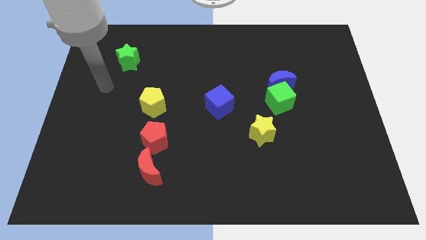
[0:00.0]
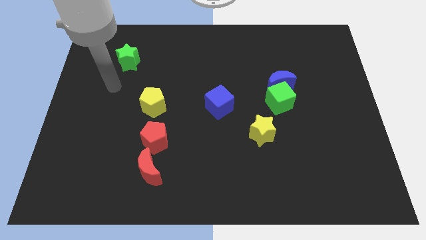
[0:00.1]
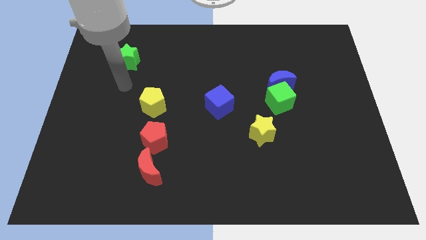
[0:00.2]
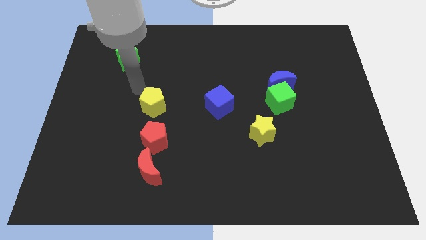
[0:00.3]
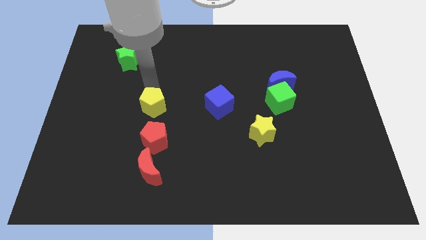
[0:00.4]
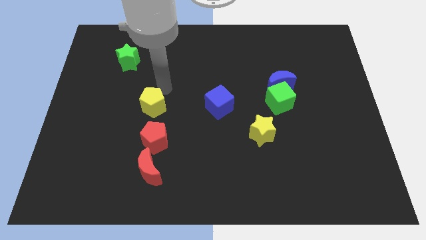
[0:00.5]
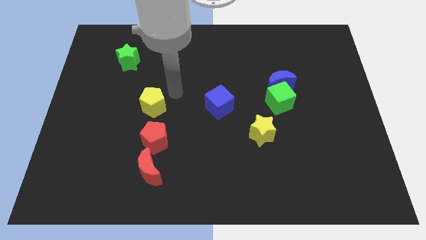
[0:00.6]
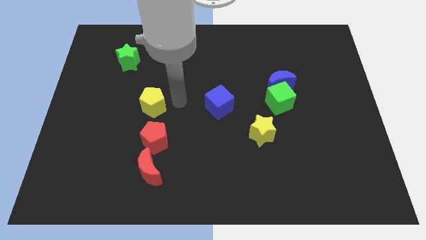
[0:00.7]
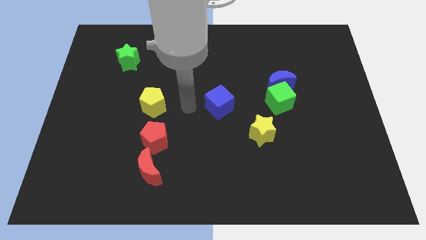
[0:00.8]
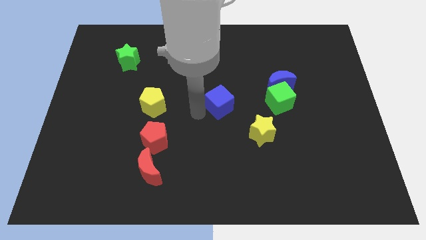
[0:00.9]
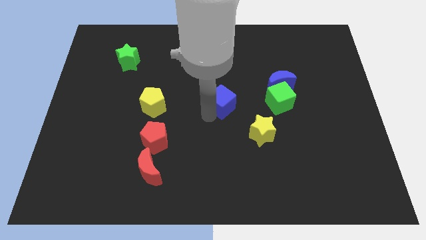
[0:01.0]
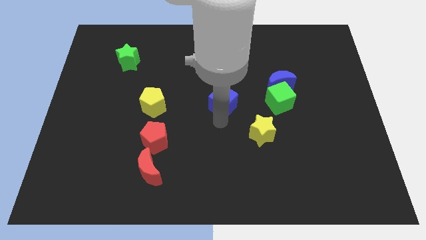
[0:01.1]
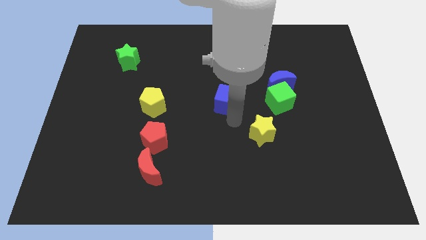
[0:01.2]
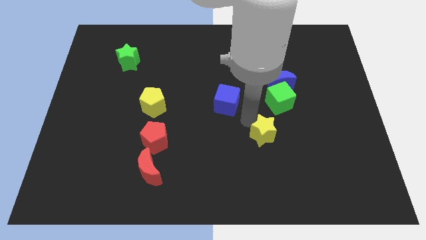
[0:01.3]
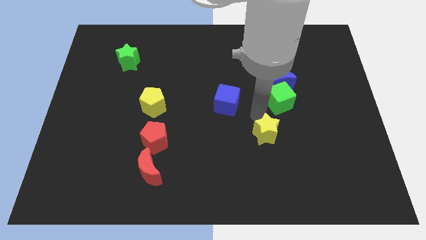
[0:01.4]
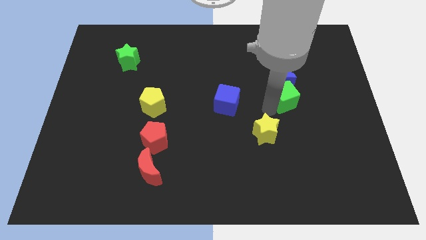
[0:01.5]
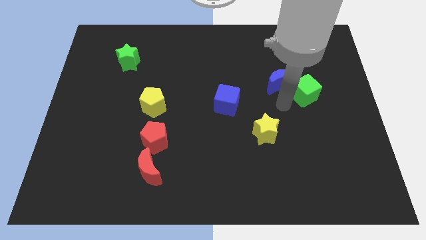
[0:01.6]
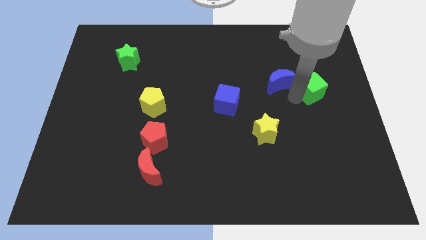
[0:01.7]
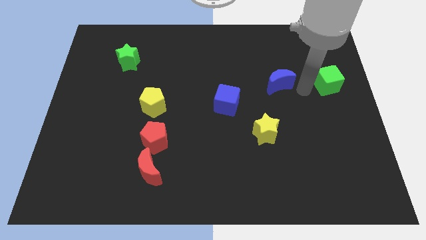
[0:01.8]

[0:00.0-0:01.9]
move the blue moon away from the green cube

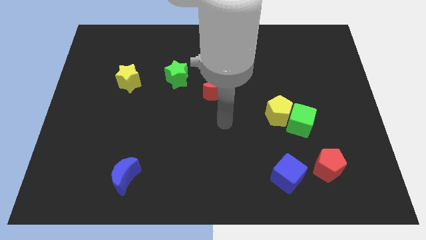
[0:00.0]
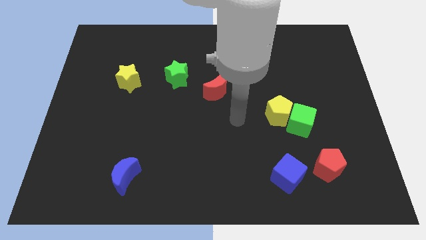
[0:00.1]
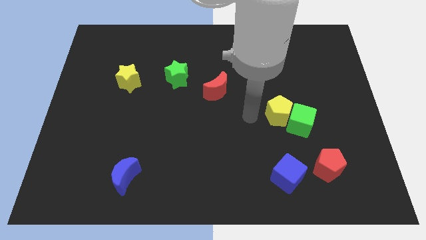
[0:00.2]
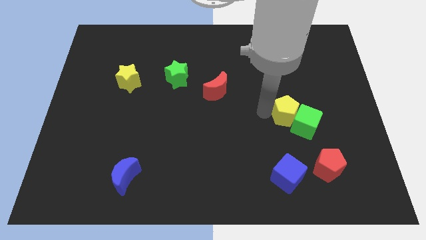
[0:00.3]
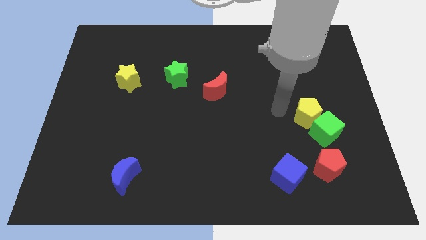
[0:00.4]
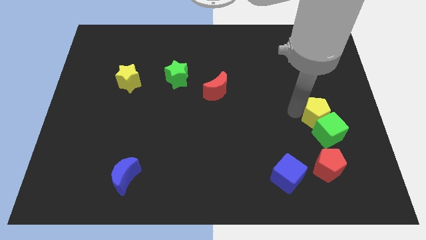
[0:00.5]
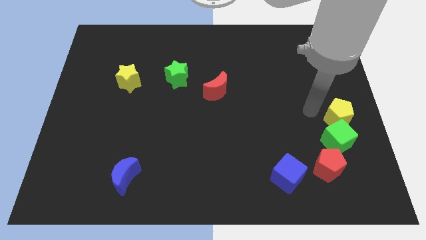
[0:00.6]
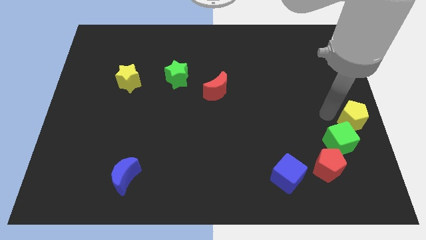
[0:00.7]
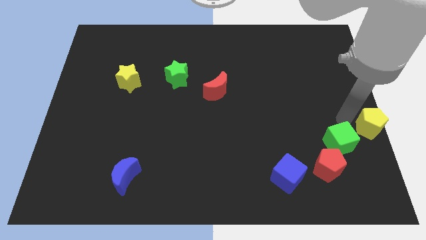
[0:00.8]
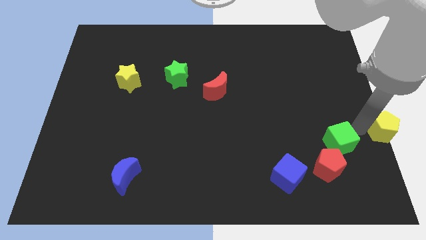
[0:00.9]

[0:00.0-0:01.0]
move the green cube away from the yellow pentagon

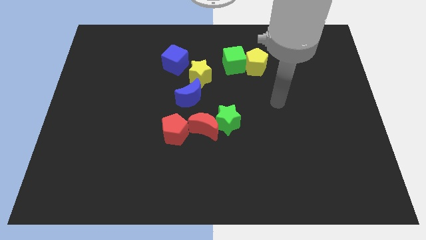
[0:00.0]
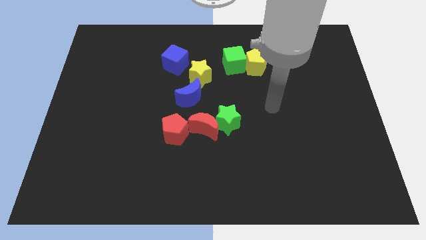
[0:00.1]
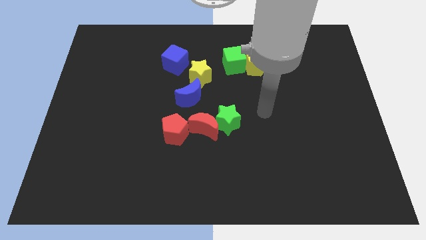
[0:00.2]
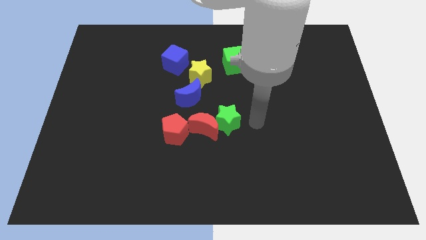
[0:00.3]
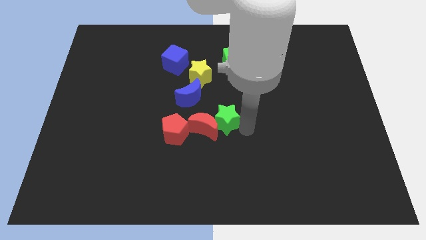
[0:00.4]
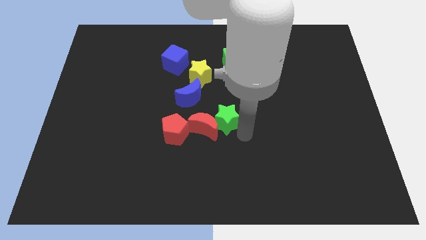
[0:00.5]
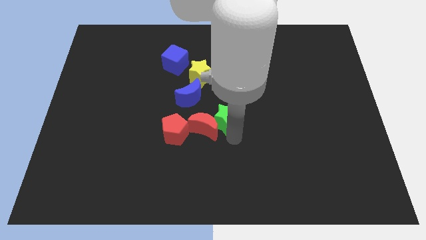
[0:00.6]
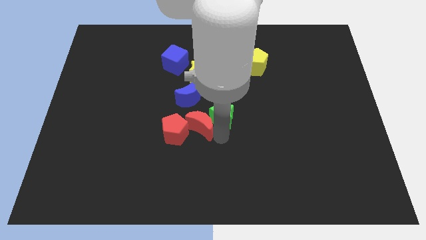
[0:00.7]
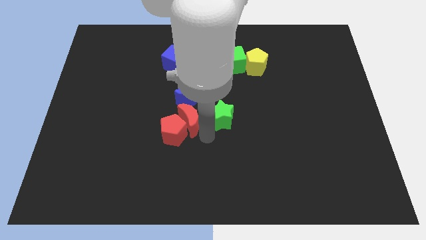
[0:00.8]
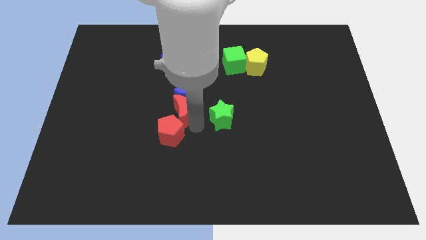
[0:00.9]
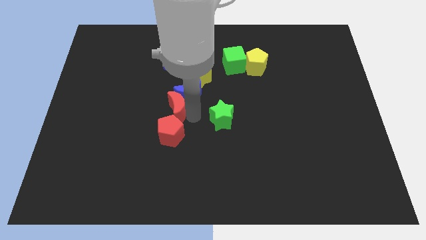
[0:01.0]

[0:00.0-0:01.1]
move the green star away from the red moon

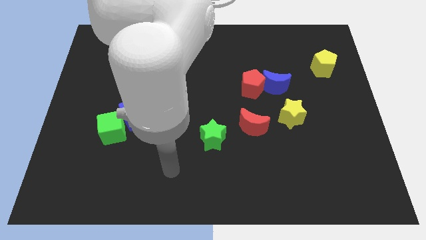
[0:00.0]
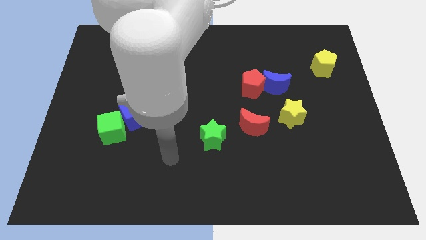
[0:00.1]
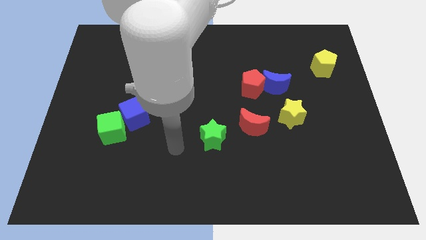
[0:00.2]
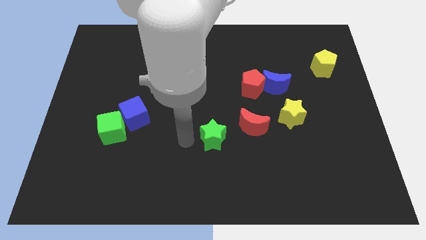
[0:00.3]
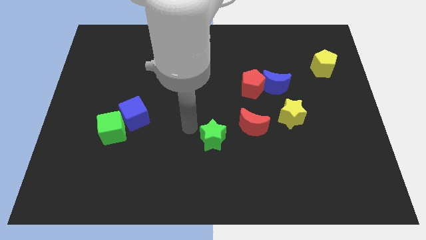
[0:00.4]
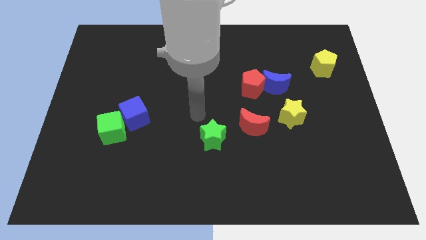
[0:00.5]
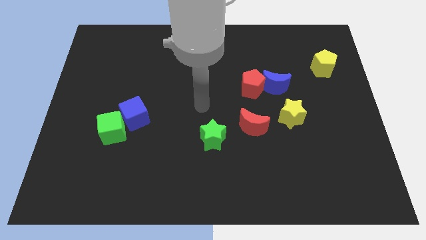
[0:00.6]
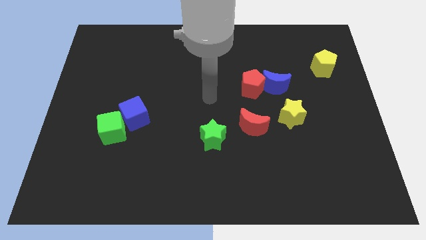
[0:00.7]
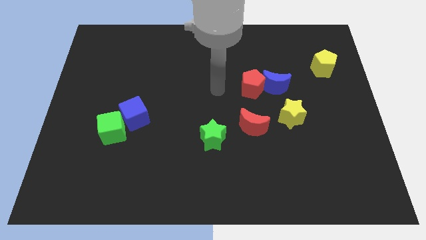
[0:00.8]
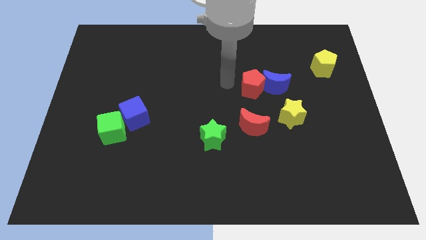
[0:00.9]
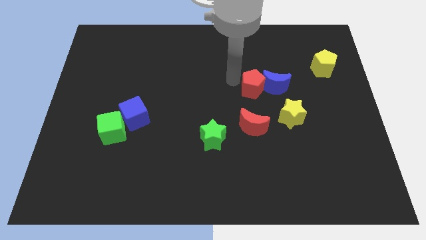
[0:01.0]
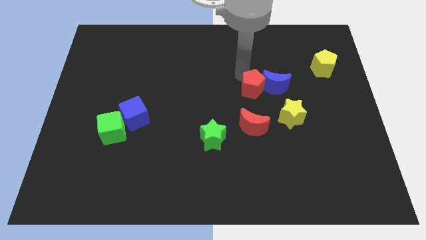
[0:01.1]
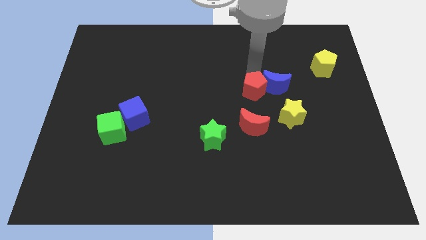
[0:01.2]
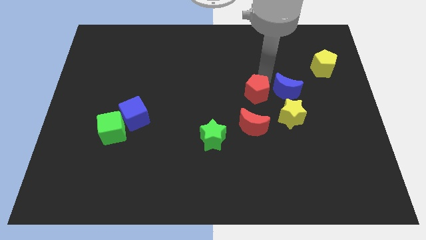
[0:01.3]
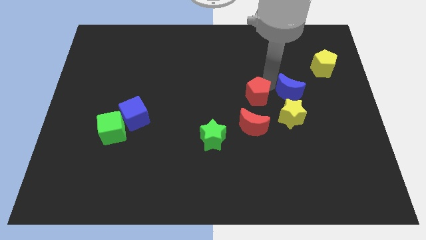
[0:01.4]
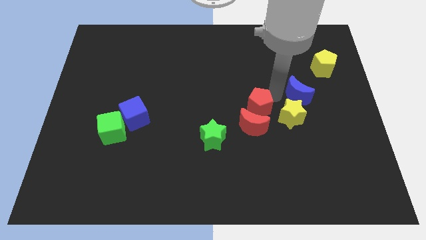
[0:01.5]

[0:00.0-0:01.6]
move the red pentagon away from the blue moon

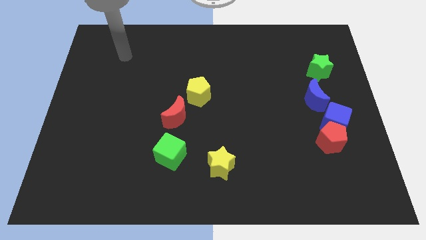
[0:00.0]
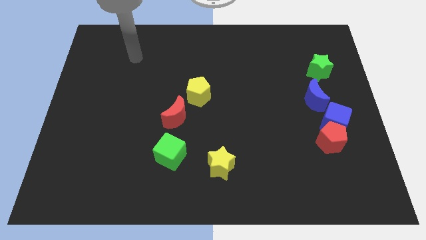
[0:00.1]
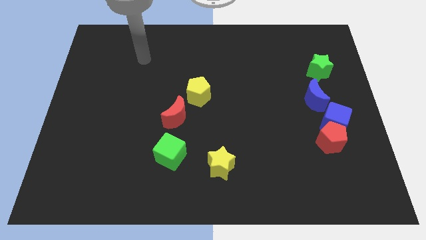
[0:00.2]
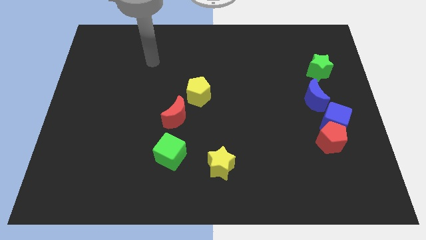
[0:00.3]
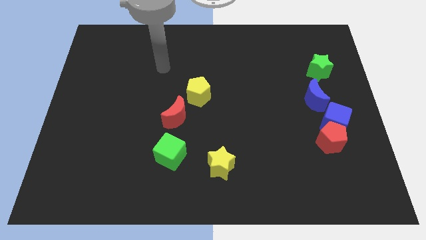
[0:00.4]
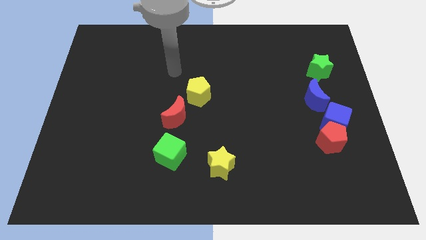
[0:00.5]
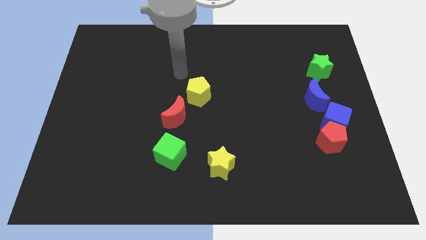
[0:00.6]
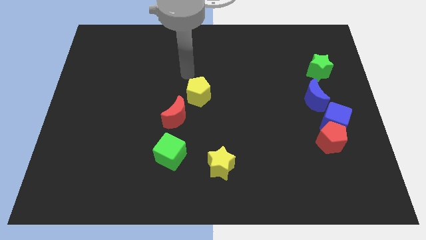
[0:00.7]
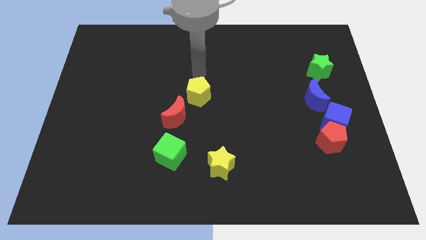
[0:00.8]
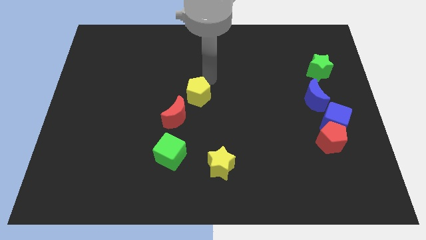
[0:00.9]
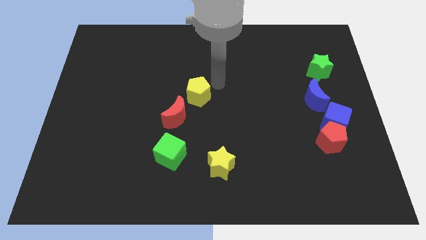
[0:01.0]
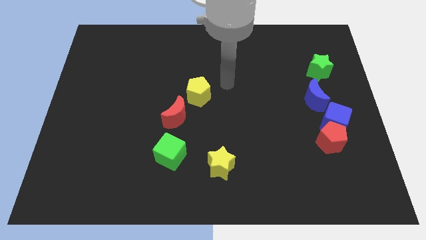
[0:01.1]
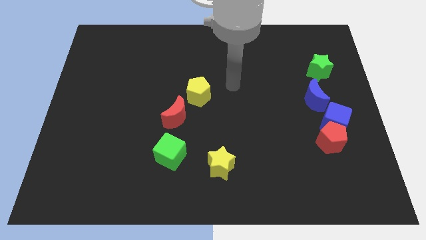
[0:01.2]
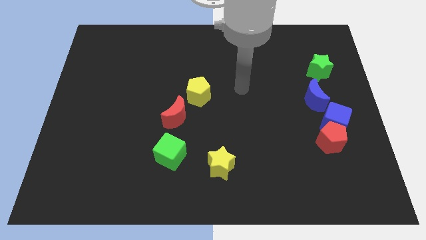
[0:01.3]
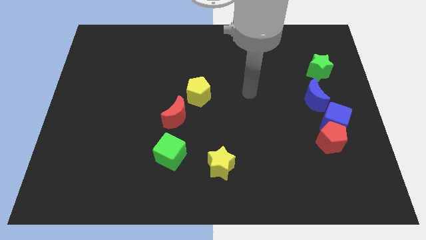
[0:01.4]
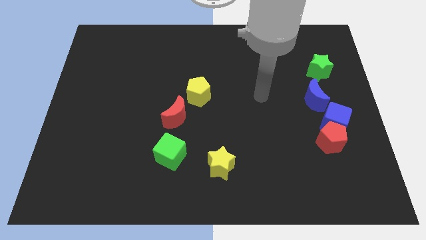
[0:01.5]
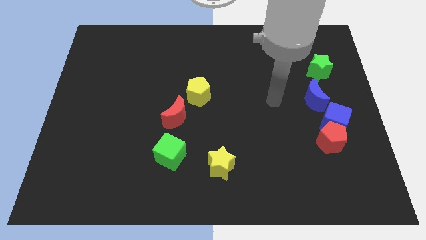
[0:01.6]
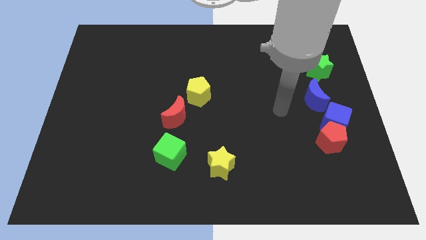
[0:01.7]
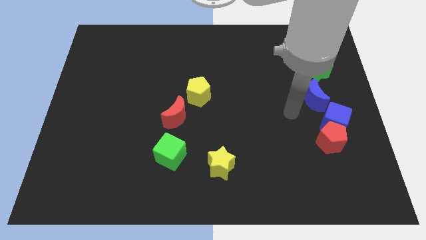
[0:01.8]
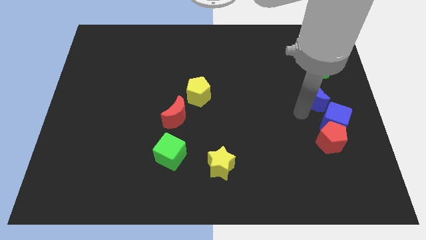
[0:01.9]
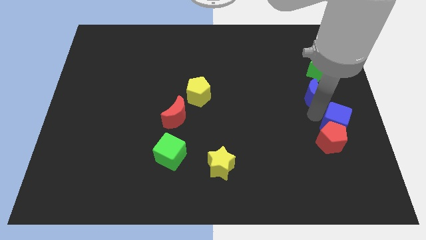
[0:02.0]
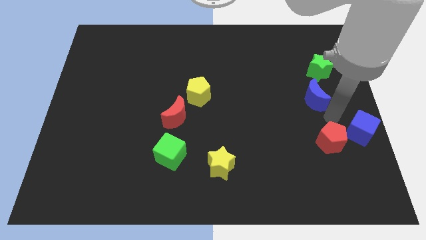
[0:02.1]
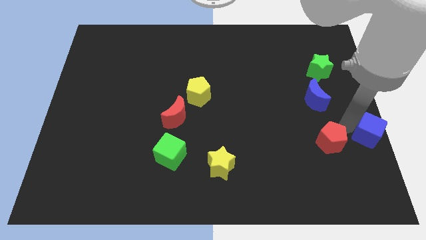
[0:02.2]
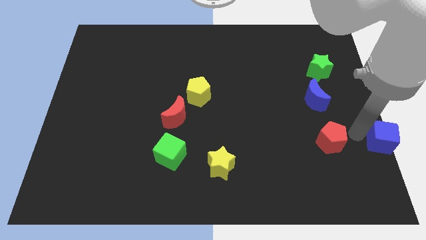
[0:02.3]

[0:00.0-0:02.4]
separate the red pentagon from the blue cube

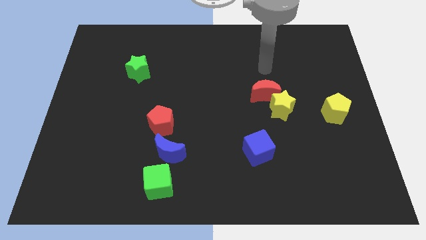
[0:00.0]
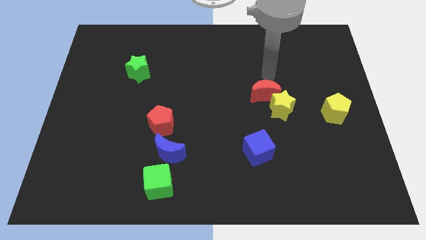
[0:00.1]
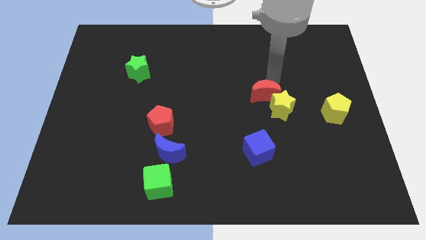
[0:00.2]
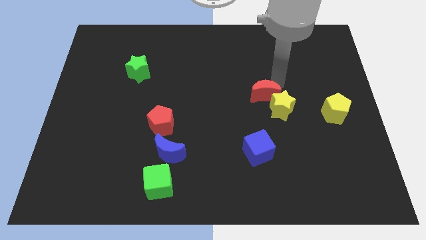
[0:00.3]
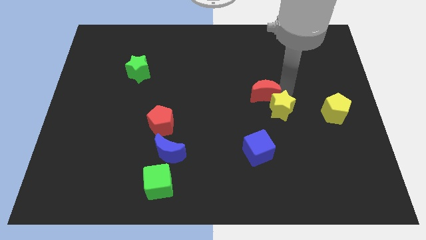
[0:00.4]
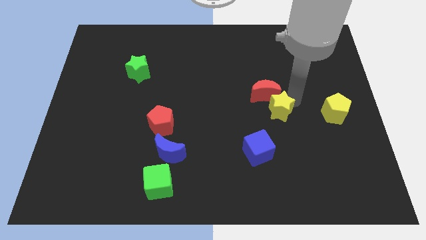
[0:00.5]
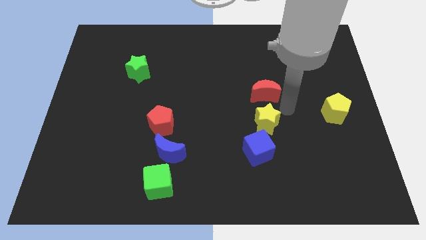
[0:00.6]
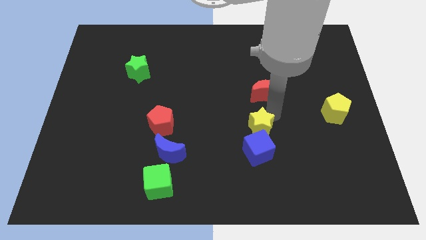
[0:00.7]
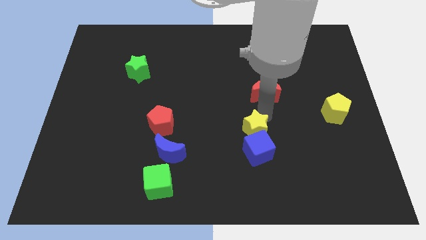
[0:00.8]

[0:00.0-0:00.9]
pull the red moon apart from the yellow star

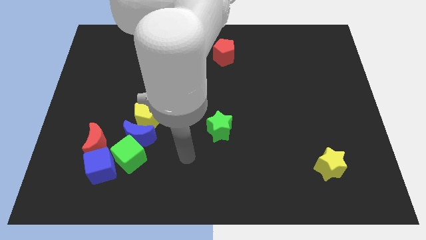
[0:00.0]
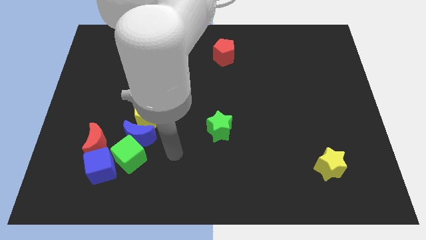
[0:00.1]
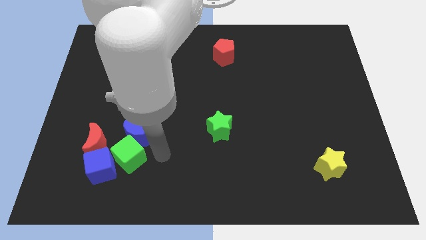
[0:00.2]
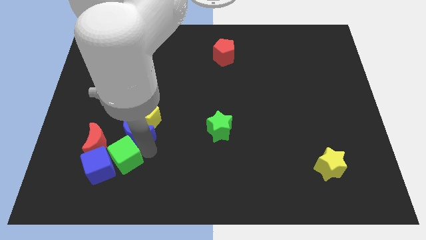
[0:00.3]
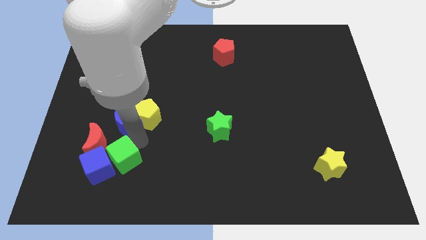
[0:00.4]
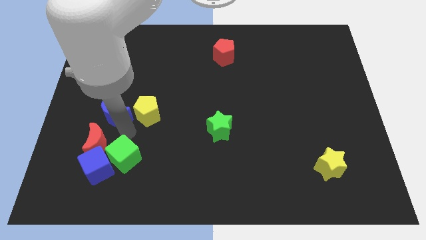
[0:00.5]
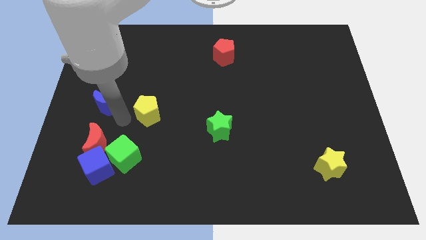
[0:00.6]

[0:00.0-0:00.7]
move the yellow pentagon away from the blue moon
